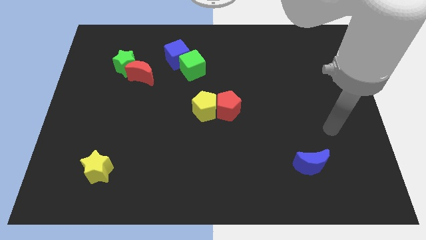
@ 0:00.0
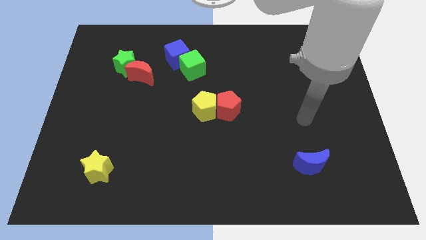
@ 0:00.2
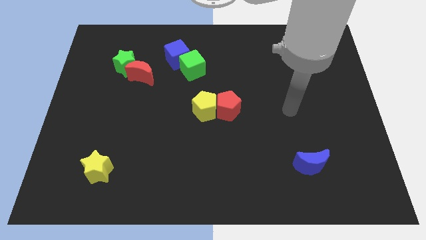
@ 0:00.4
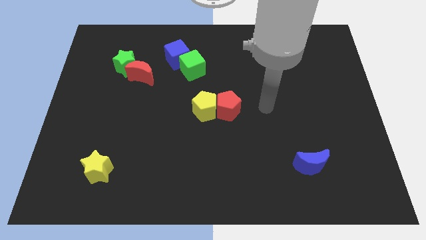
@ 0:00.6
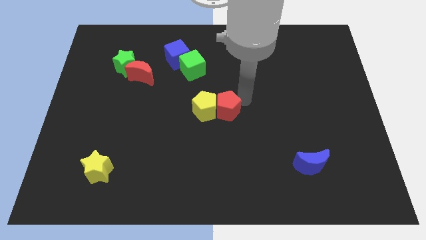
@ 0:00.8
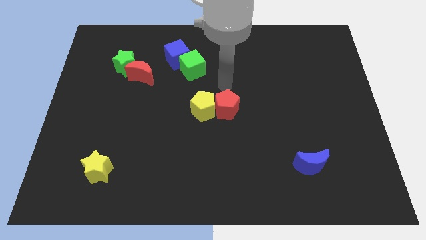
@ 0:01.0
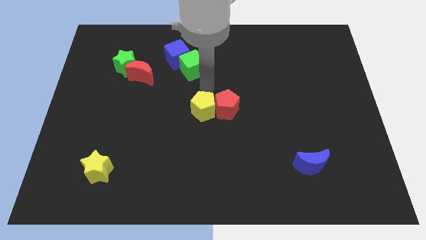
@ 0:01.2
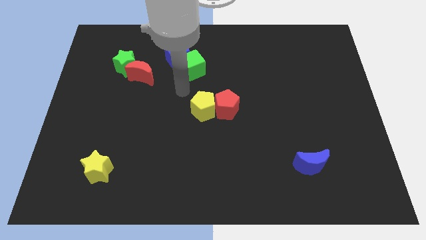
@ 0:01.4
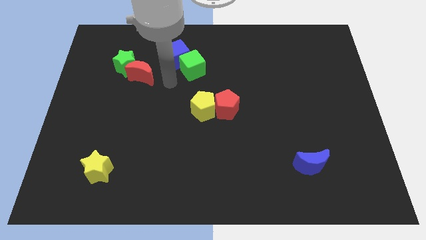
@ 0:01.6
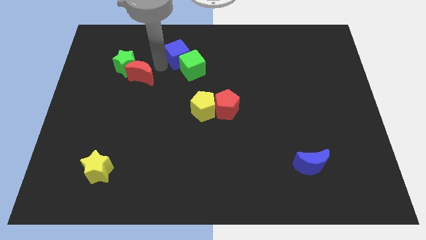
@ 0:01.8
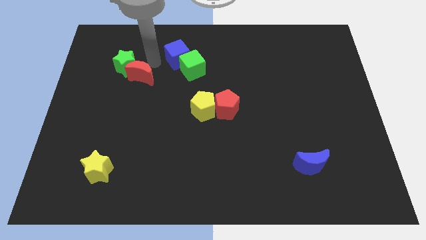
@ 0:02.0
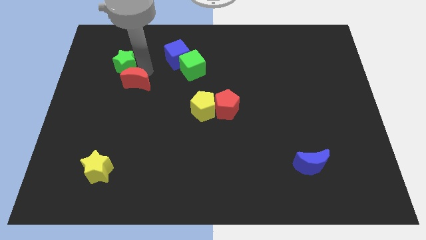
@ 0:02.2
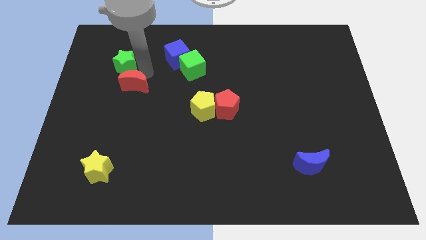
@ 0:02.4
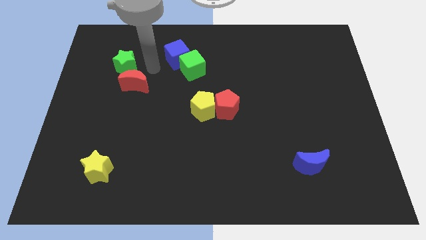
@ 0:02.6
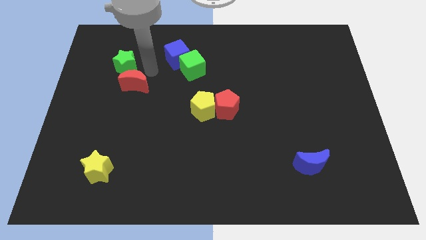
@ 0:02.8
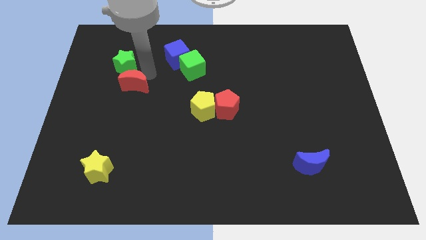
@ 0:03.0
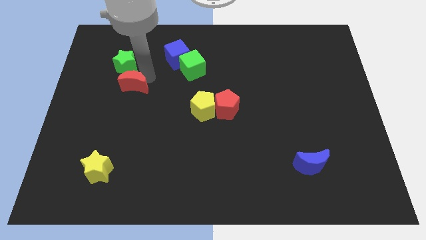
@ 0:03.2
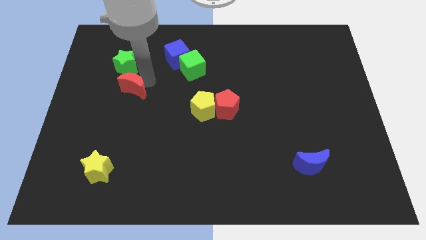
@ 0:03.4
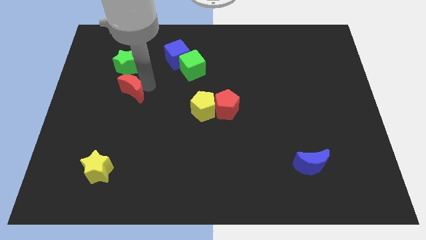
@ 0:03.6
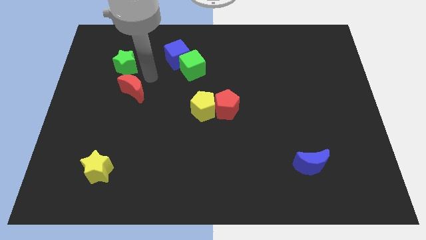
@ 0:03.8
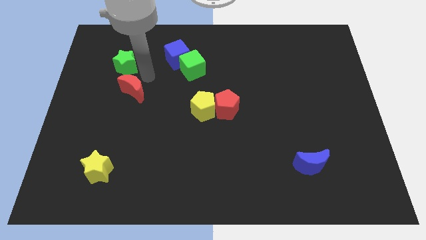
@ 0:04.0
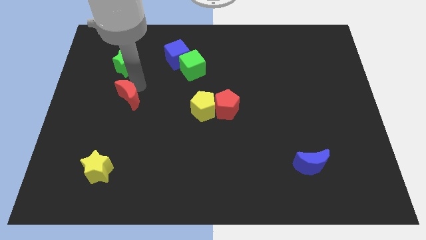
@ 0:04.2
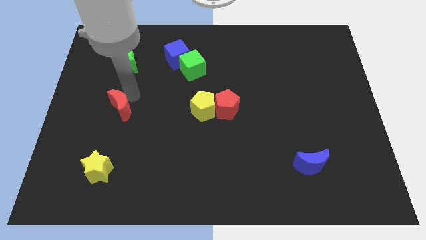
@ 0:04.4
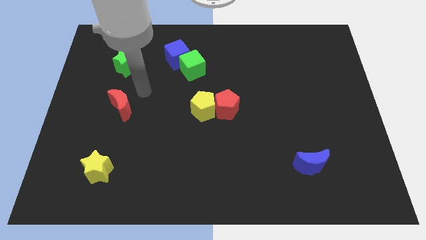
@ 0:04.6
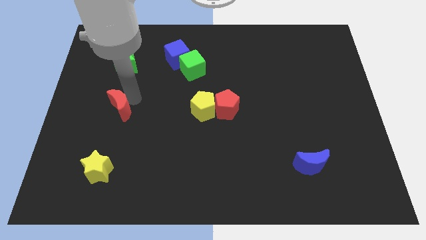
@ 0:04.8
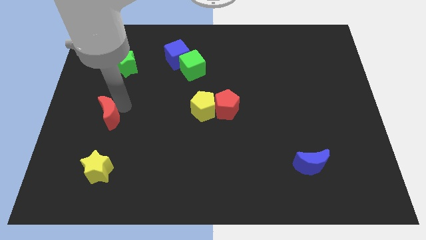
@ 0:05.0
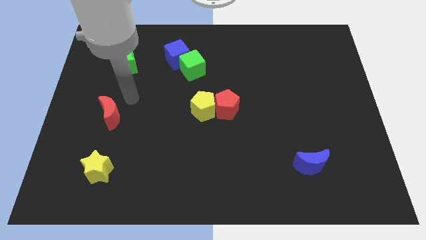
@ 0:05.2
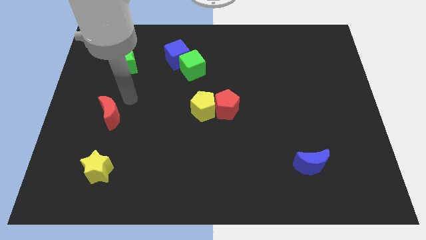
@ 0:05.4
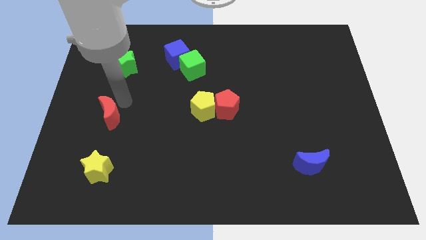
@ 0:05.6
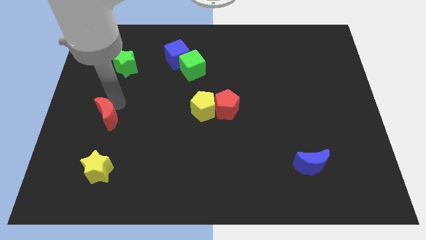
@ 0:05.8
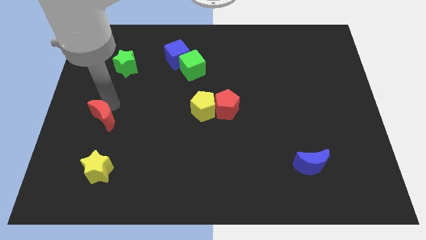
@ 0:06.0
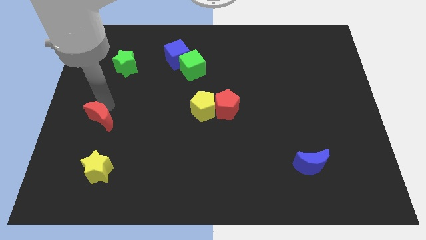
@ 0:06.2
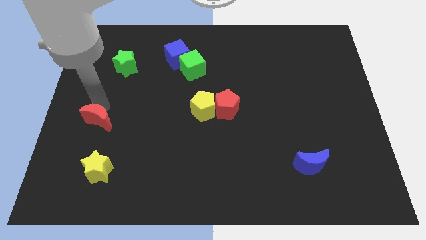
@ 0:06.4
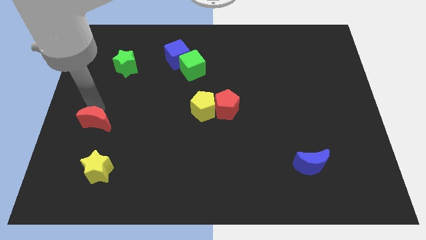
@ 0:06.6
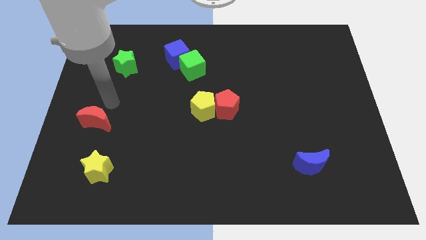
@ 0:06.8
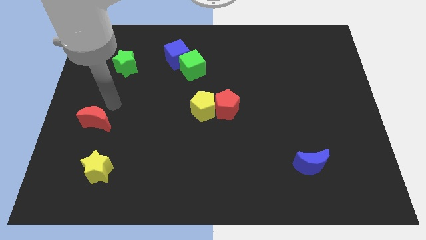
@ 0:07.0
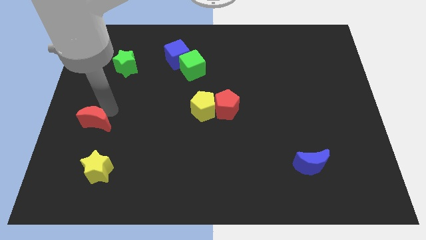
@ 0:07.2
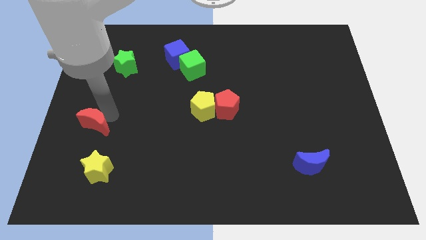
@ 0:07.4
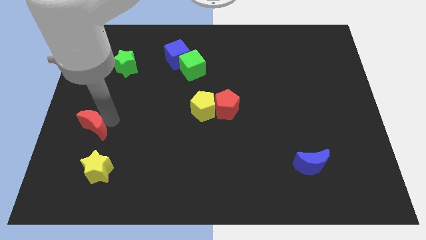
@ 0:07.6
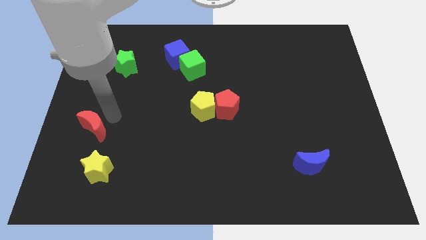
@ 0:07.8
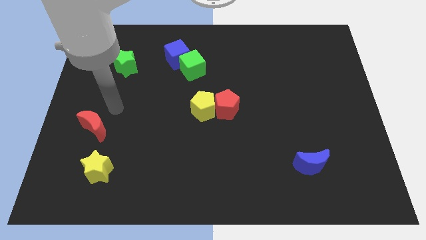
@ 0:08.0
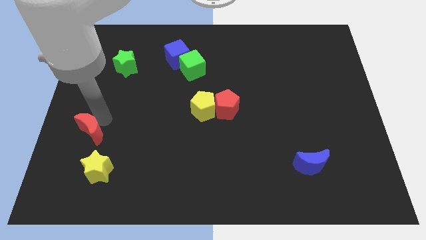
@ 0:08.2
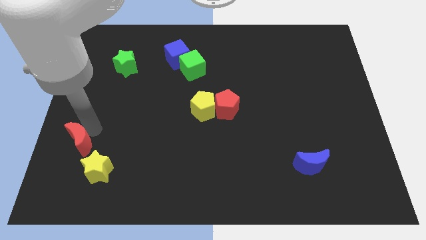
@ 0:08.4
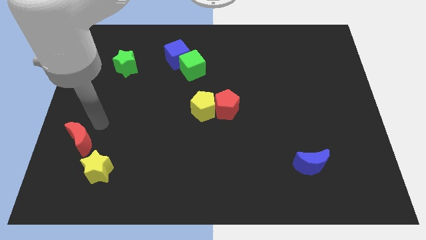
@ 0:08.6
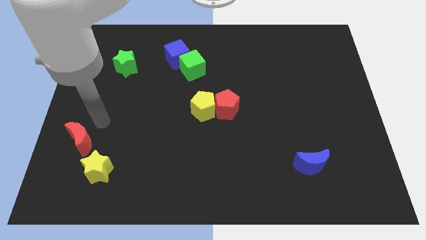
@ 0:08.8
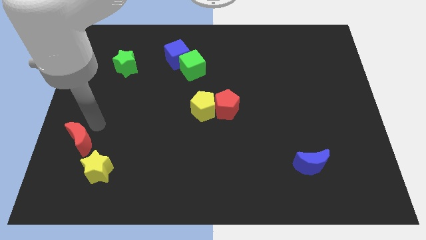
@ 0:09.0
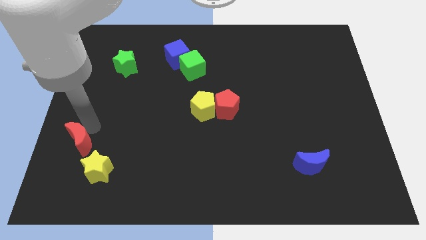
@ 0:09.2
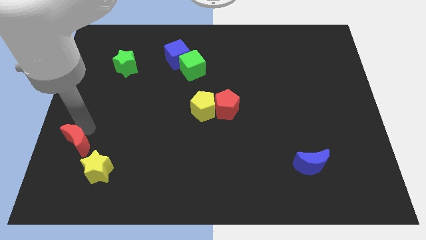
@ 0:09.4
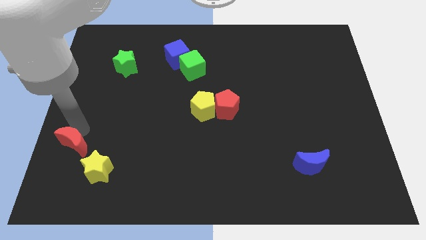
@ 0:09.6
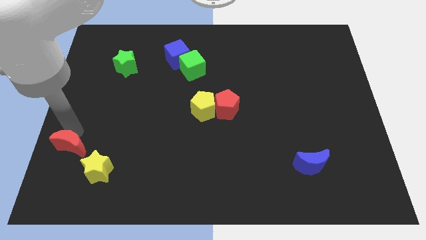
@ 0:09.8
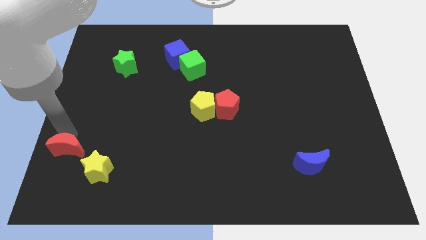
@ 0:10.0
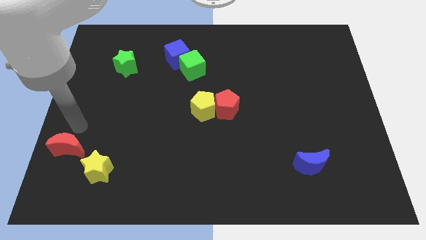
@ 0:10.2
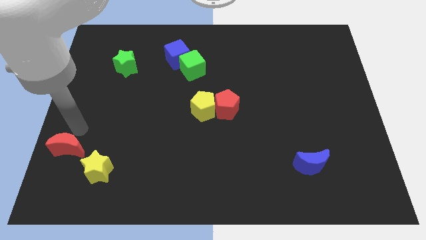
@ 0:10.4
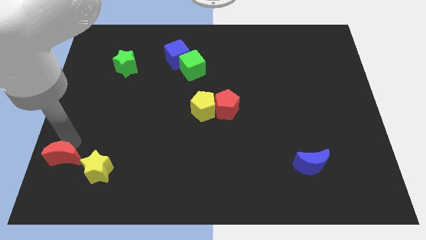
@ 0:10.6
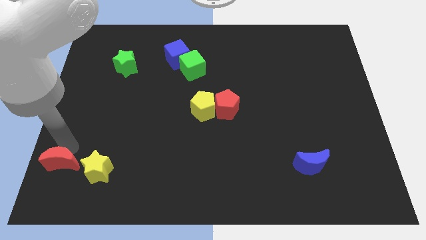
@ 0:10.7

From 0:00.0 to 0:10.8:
push the red moon to the bottom left
